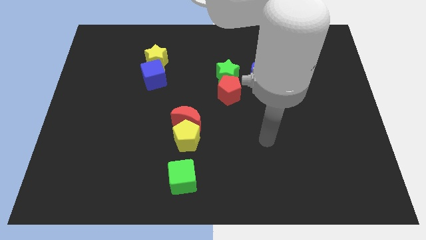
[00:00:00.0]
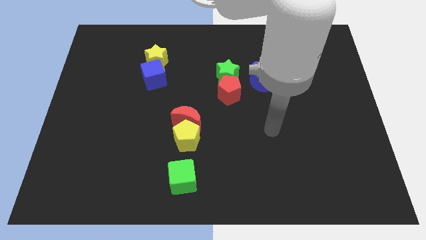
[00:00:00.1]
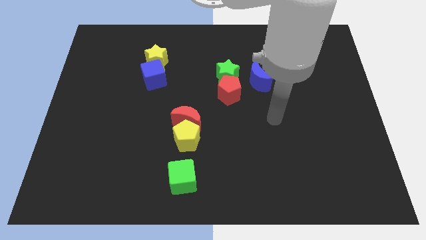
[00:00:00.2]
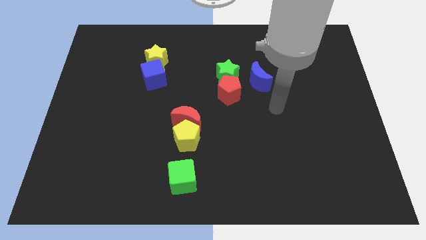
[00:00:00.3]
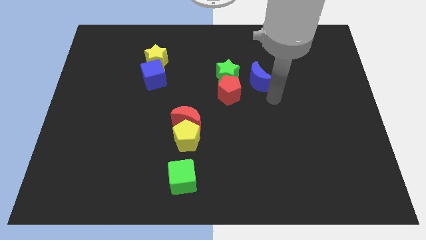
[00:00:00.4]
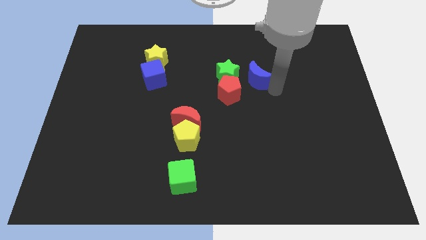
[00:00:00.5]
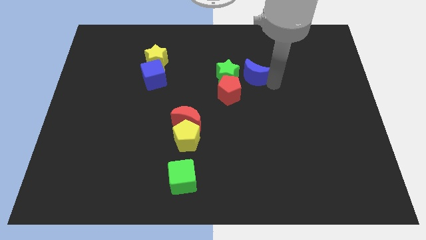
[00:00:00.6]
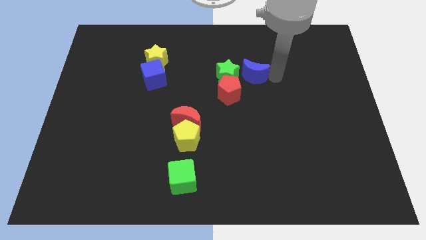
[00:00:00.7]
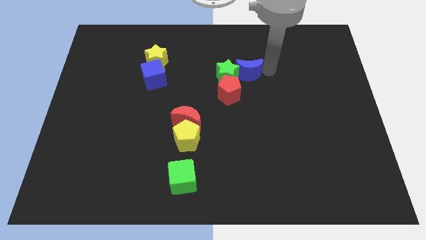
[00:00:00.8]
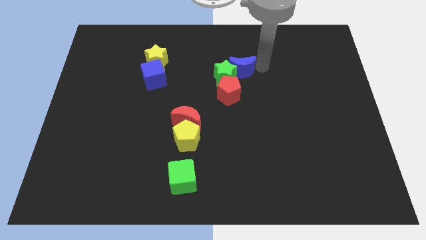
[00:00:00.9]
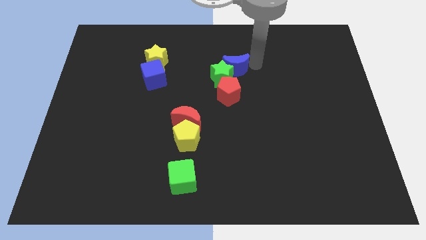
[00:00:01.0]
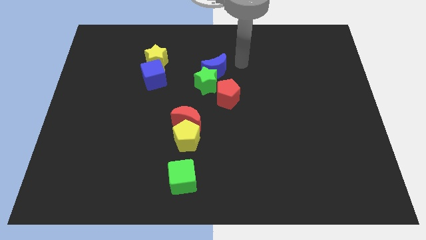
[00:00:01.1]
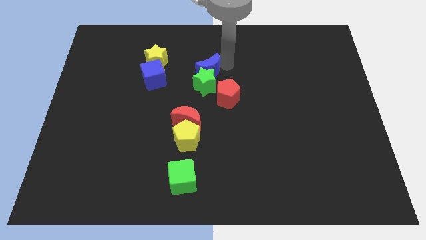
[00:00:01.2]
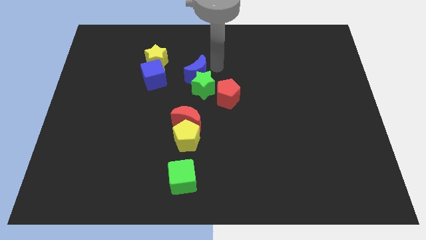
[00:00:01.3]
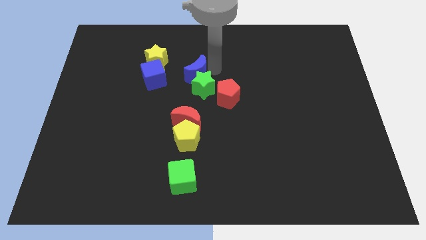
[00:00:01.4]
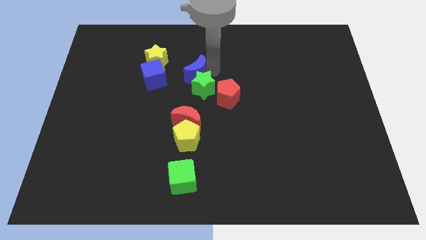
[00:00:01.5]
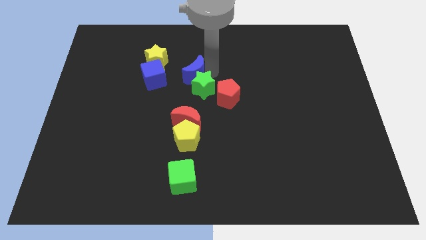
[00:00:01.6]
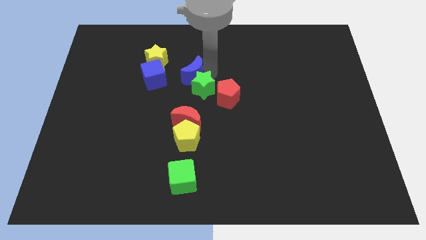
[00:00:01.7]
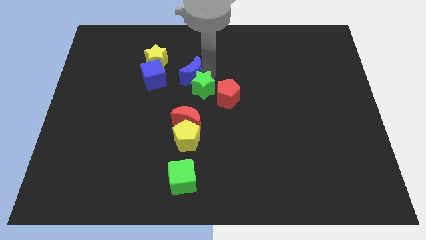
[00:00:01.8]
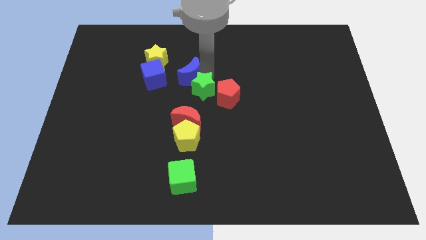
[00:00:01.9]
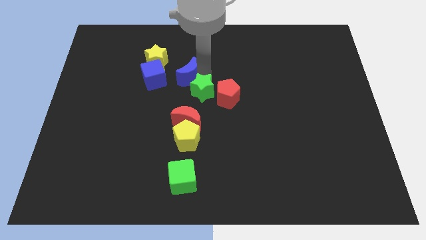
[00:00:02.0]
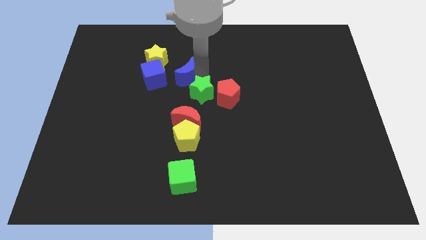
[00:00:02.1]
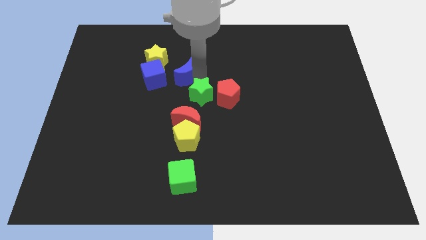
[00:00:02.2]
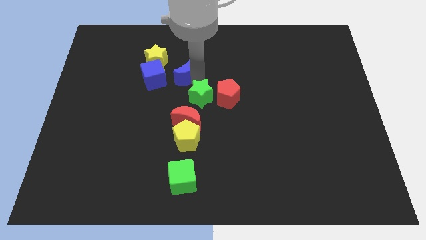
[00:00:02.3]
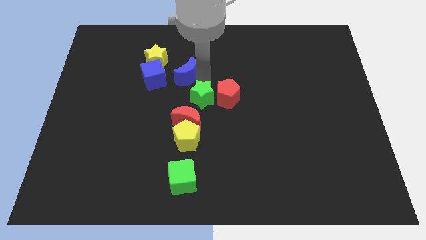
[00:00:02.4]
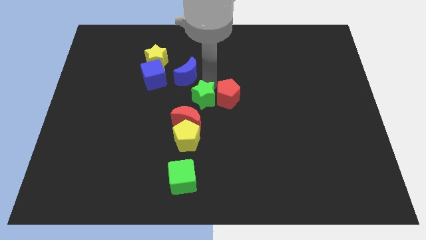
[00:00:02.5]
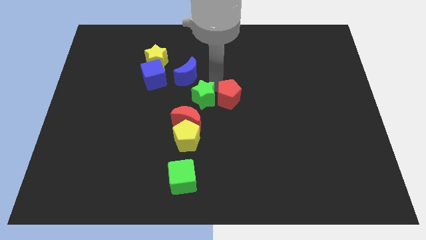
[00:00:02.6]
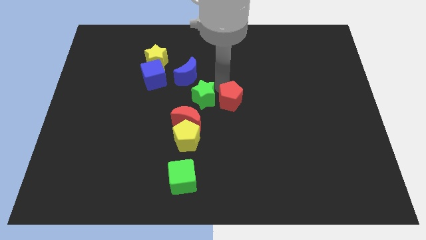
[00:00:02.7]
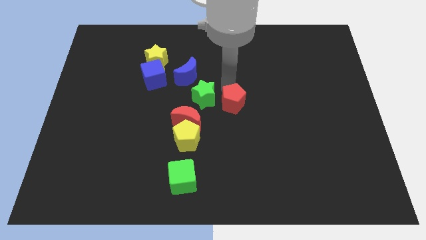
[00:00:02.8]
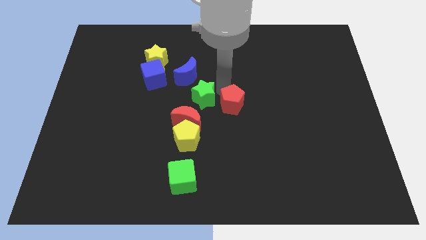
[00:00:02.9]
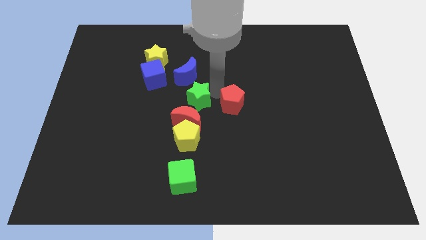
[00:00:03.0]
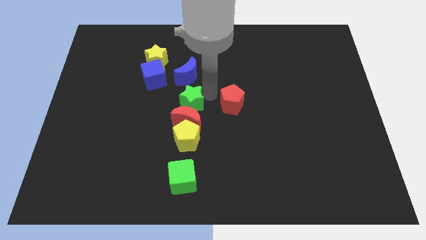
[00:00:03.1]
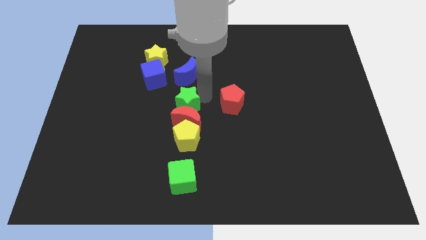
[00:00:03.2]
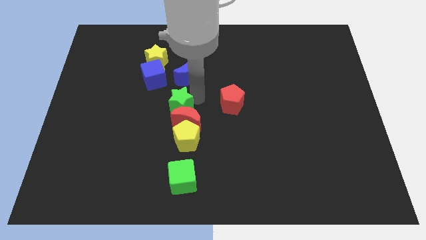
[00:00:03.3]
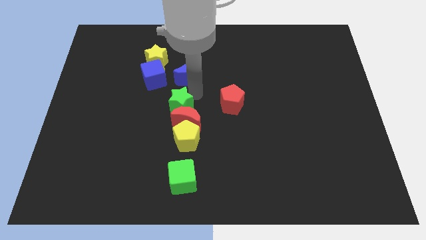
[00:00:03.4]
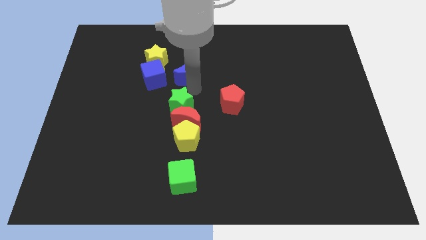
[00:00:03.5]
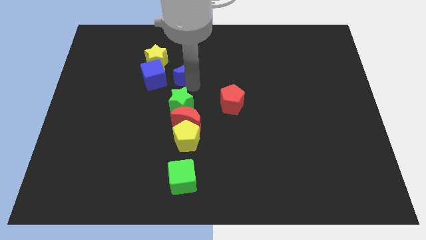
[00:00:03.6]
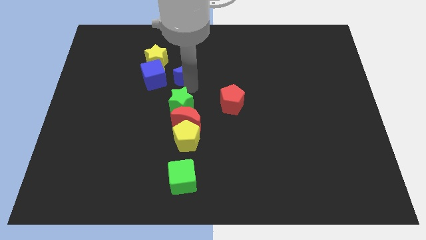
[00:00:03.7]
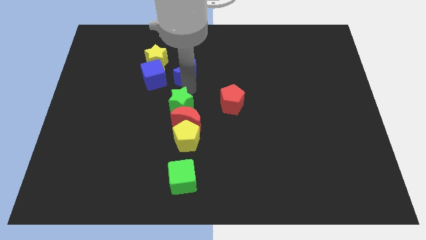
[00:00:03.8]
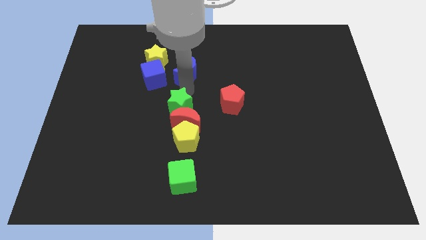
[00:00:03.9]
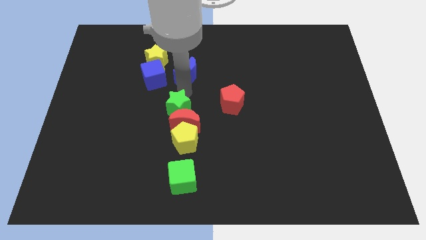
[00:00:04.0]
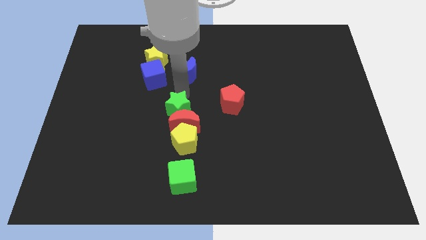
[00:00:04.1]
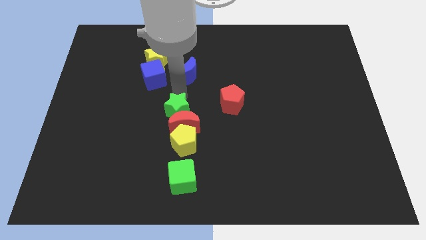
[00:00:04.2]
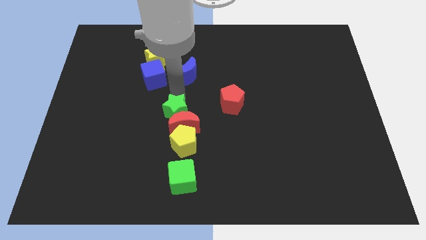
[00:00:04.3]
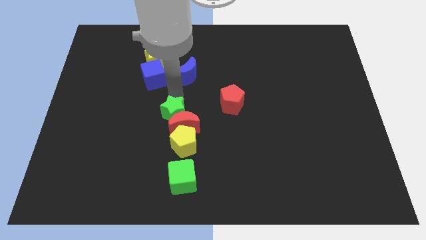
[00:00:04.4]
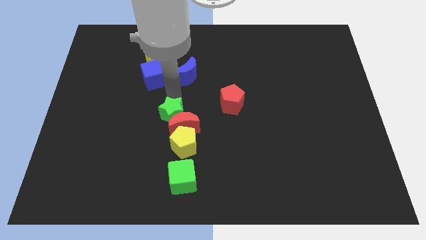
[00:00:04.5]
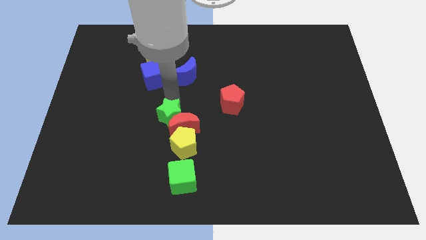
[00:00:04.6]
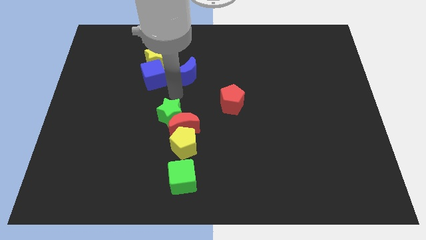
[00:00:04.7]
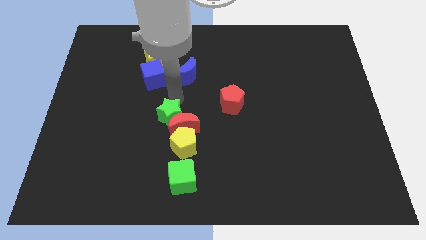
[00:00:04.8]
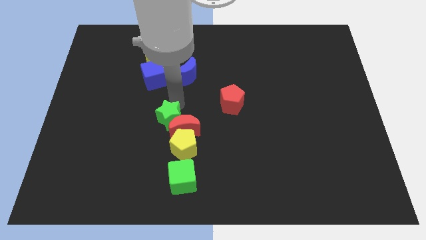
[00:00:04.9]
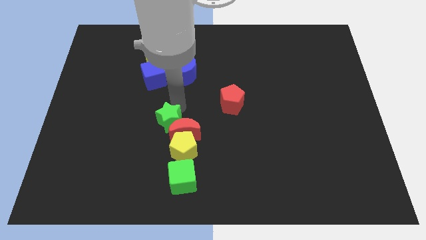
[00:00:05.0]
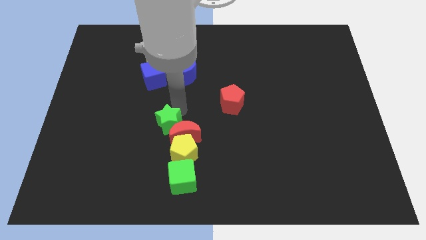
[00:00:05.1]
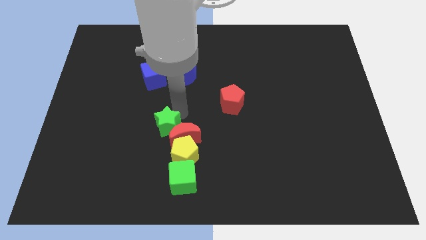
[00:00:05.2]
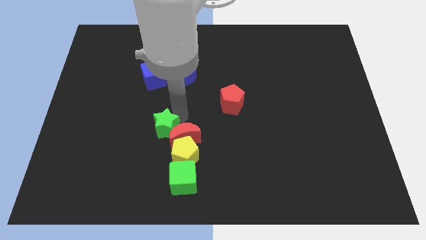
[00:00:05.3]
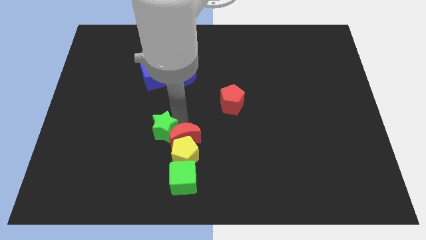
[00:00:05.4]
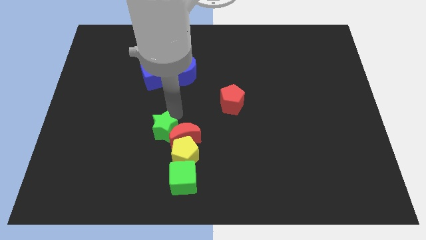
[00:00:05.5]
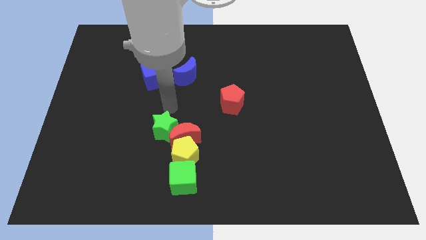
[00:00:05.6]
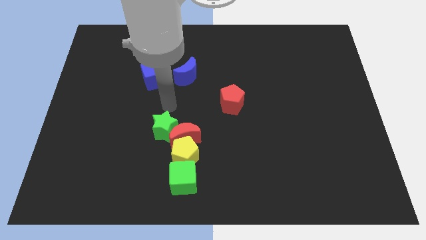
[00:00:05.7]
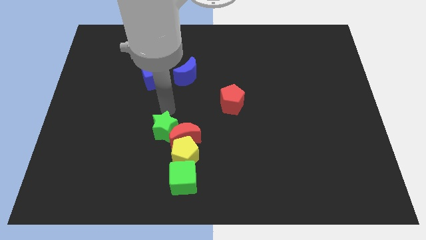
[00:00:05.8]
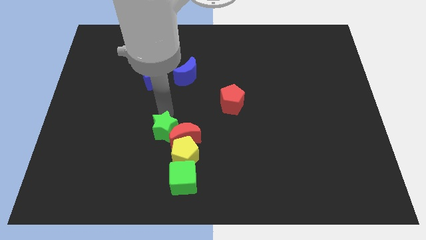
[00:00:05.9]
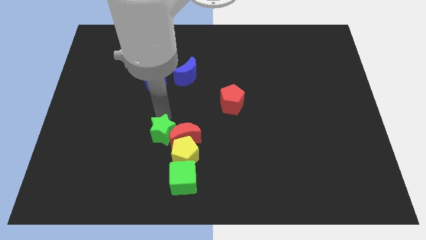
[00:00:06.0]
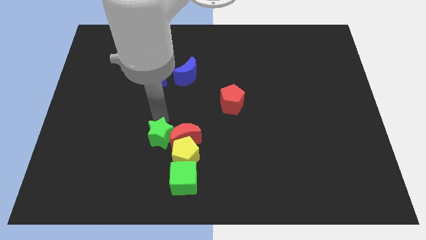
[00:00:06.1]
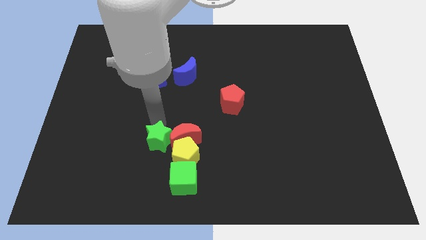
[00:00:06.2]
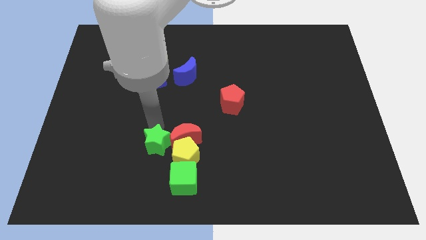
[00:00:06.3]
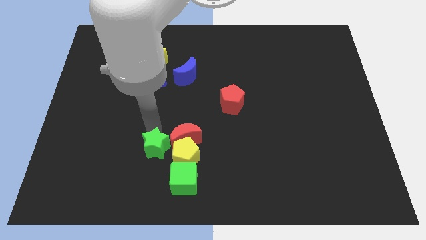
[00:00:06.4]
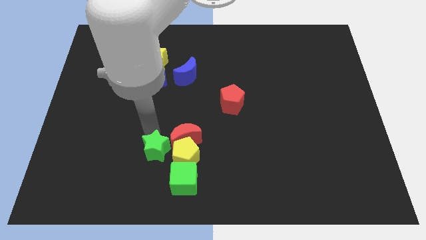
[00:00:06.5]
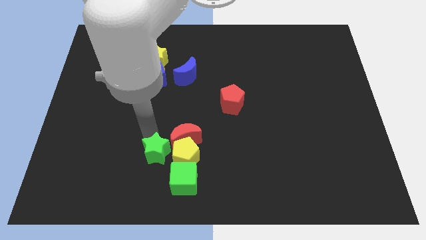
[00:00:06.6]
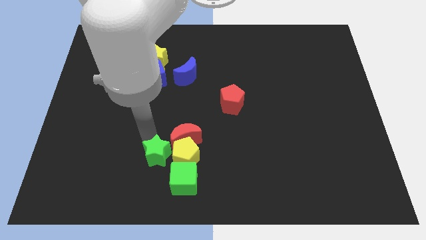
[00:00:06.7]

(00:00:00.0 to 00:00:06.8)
slide the green star to the bottom left of the yellow pentagon

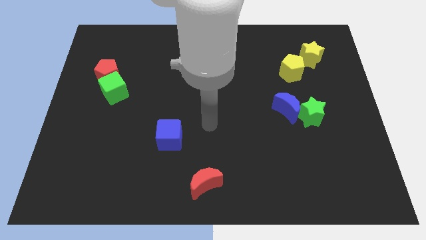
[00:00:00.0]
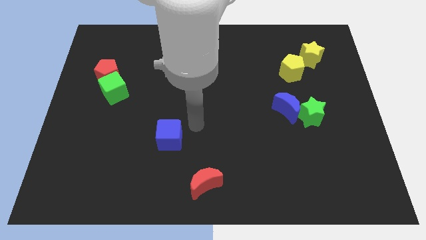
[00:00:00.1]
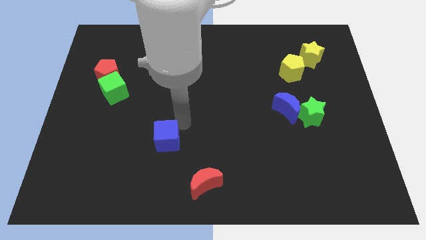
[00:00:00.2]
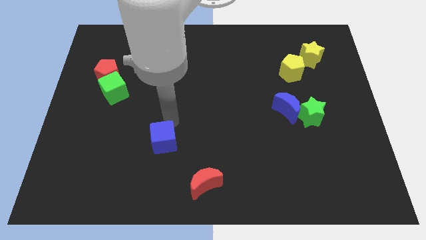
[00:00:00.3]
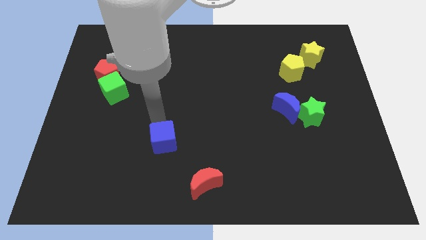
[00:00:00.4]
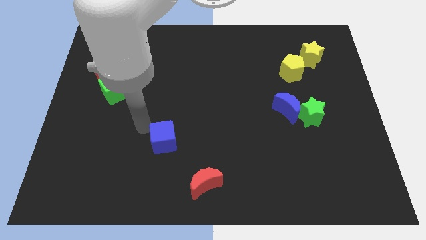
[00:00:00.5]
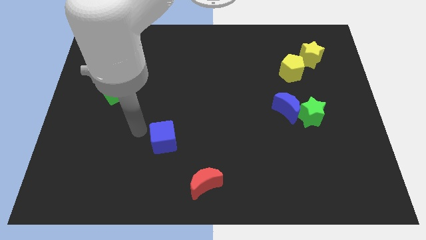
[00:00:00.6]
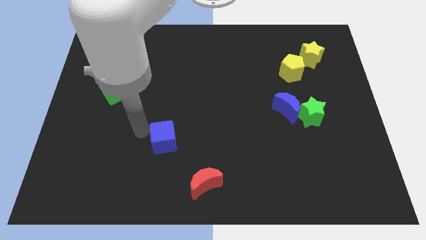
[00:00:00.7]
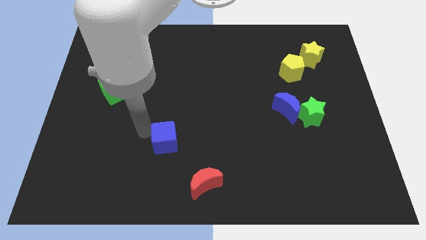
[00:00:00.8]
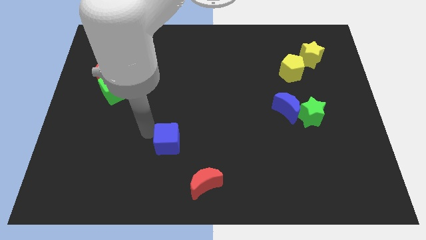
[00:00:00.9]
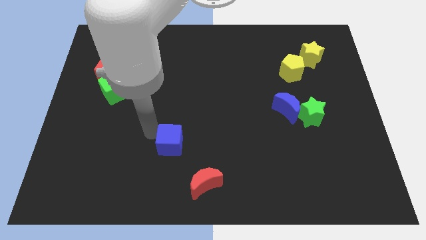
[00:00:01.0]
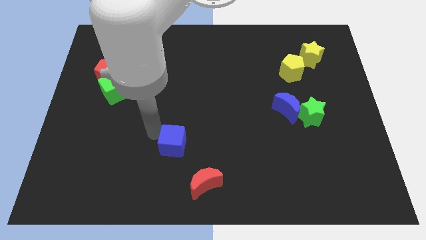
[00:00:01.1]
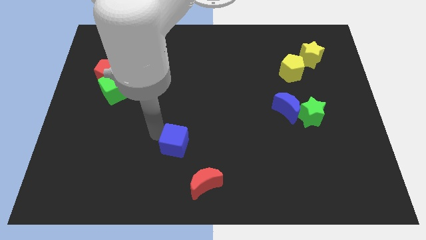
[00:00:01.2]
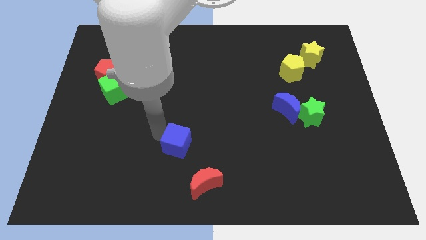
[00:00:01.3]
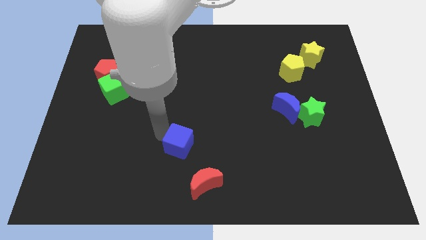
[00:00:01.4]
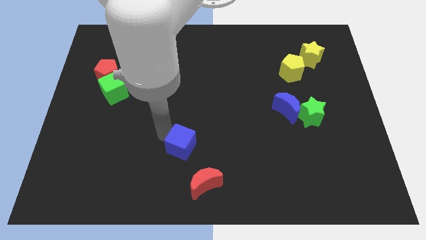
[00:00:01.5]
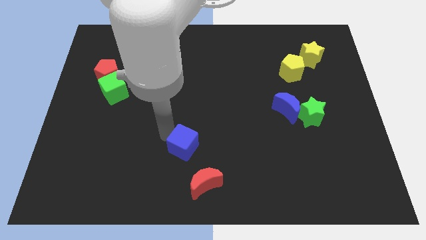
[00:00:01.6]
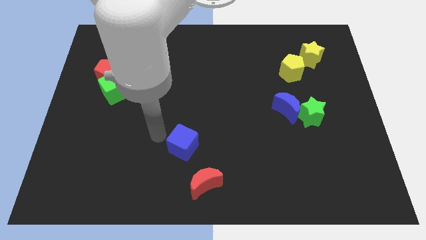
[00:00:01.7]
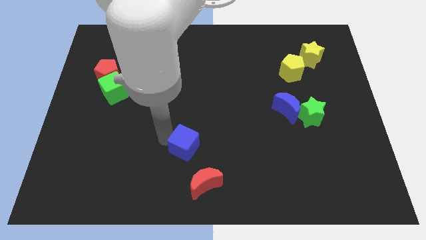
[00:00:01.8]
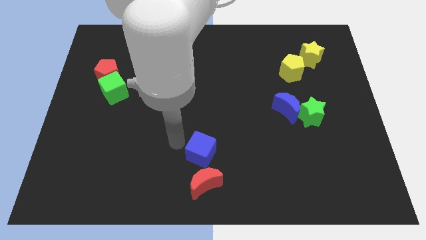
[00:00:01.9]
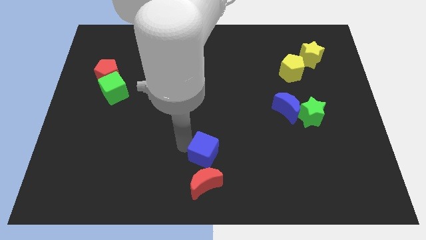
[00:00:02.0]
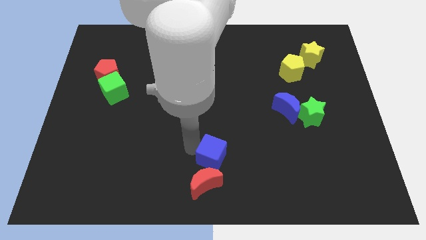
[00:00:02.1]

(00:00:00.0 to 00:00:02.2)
push the blue cube to the top right of the red moon
